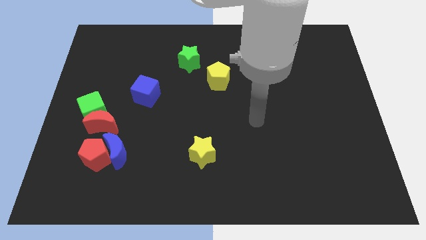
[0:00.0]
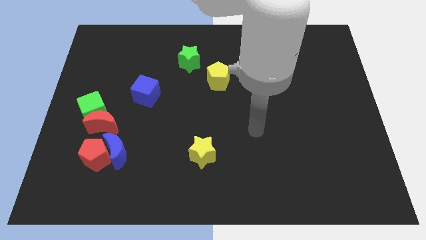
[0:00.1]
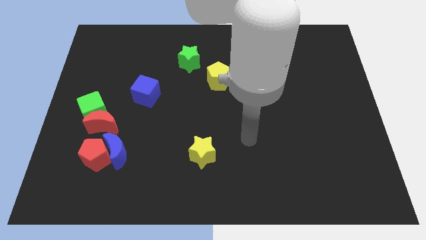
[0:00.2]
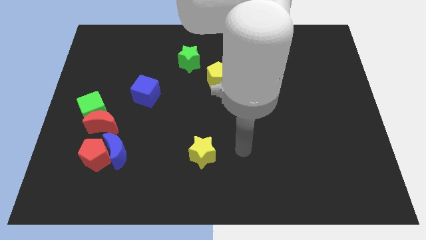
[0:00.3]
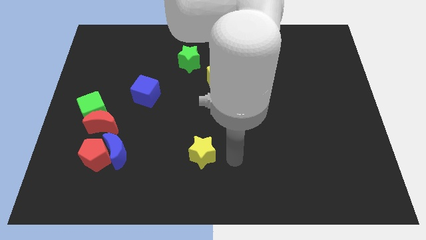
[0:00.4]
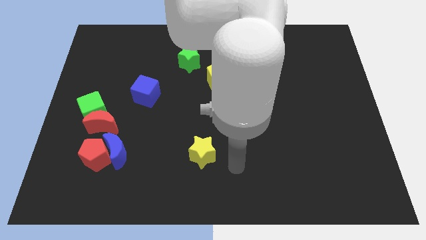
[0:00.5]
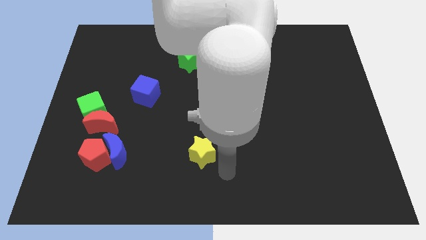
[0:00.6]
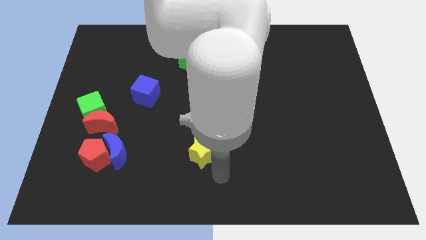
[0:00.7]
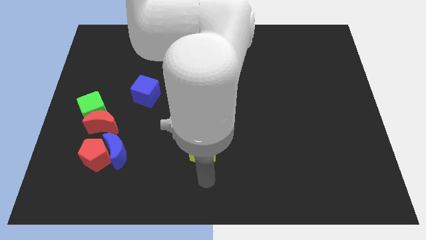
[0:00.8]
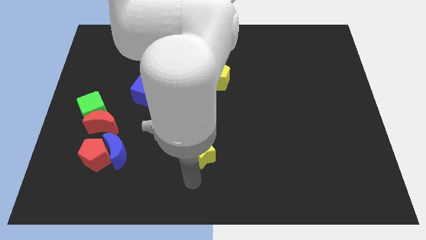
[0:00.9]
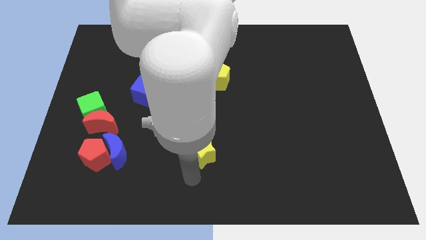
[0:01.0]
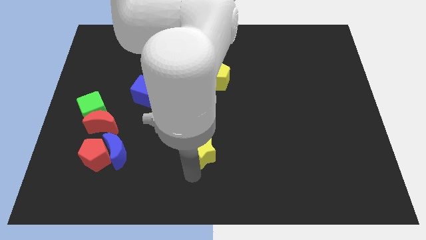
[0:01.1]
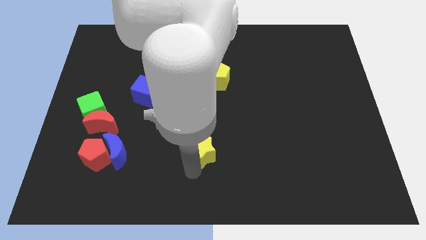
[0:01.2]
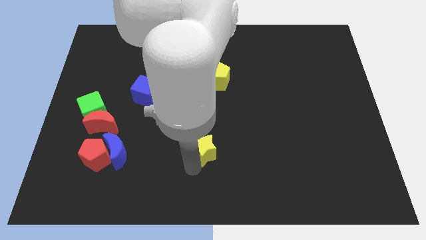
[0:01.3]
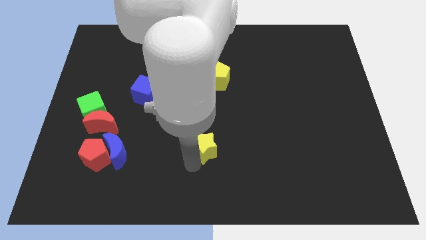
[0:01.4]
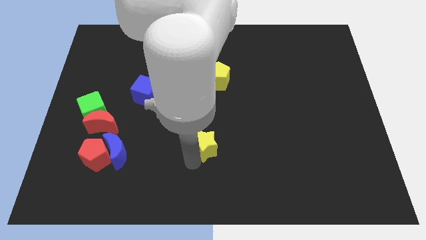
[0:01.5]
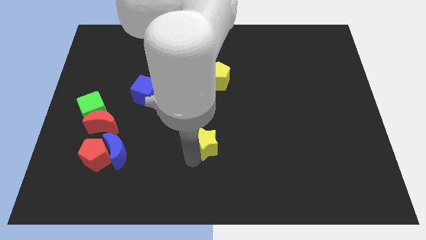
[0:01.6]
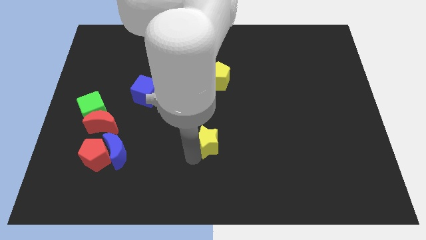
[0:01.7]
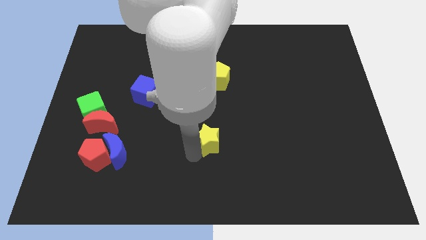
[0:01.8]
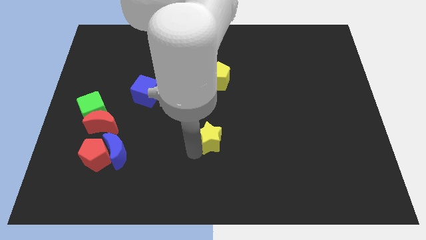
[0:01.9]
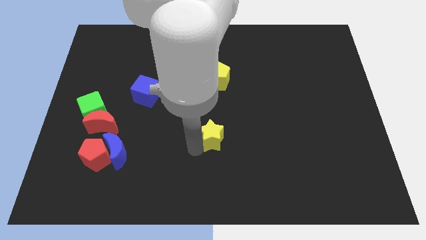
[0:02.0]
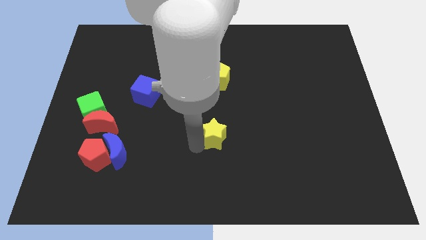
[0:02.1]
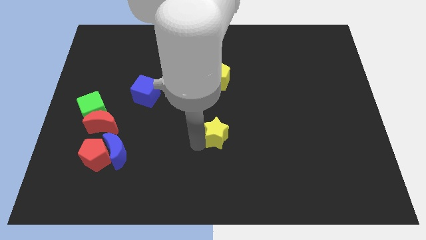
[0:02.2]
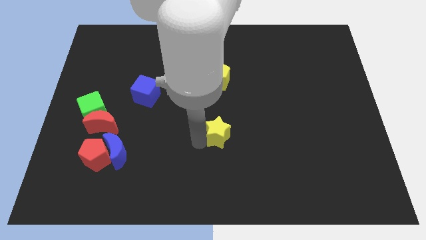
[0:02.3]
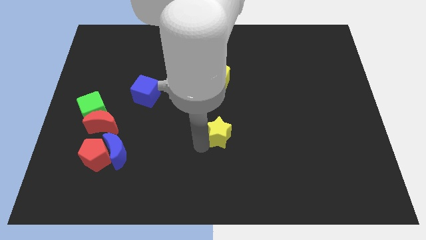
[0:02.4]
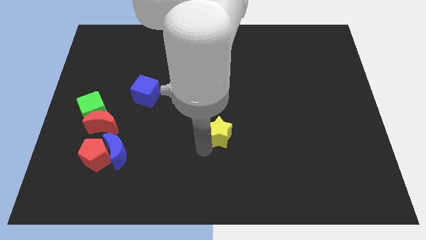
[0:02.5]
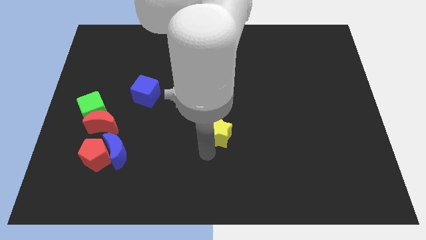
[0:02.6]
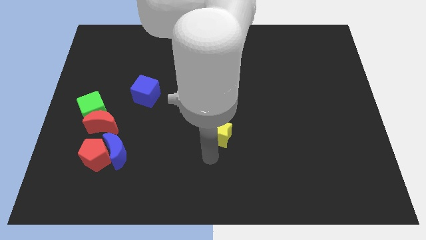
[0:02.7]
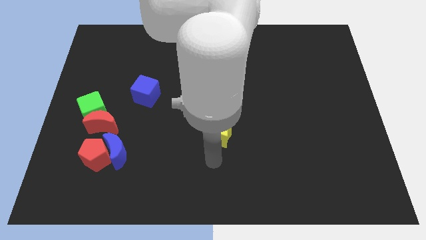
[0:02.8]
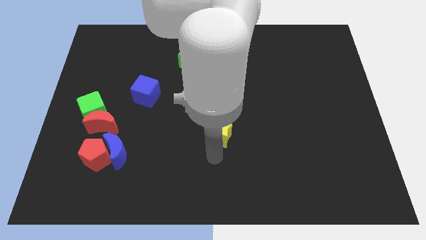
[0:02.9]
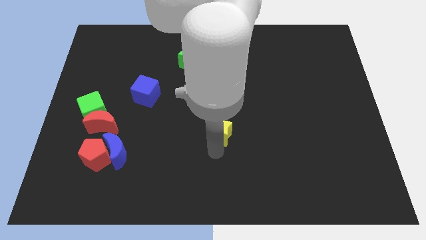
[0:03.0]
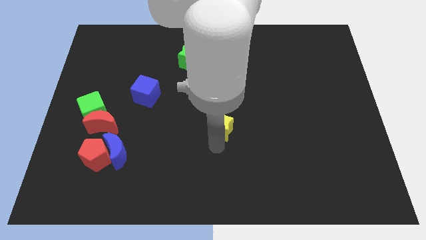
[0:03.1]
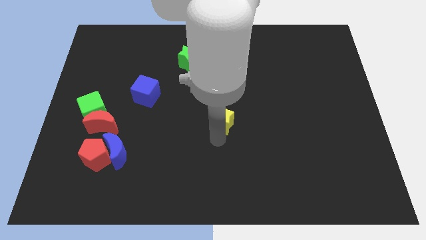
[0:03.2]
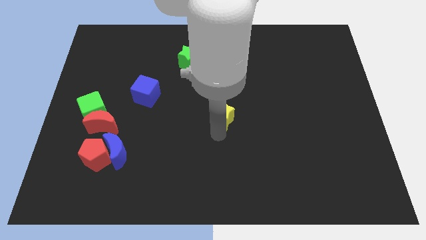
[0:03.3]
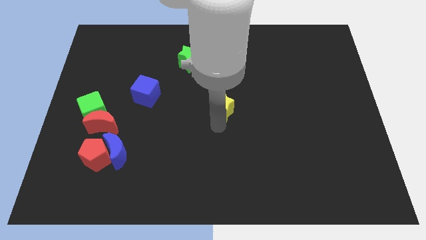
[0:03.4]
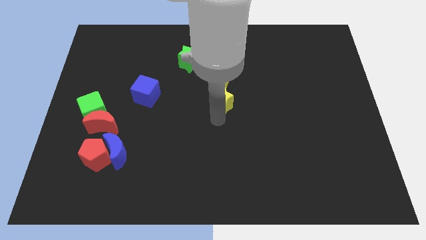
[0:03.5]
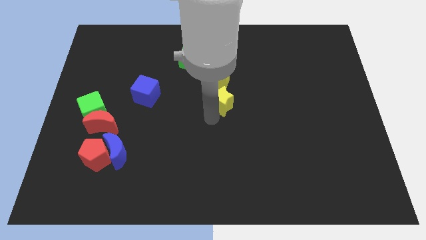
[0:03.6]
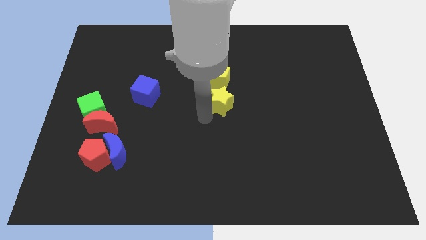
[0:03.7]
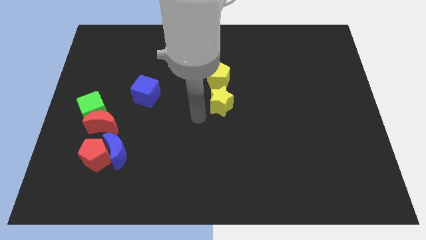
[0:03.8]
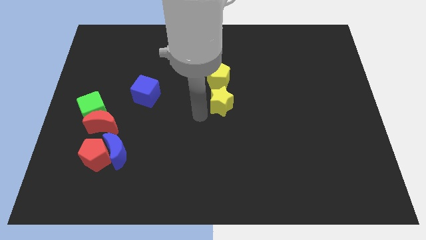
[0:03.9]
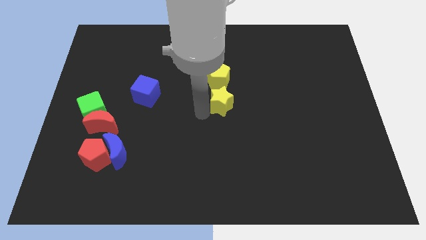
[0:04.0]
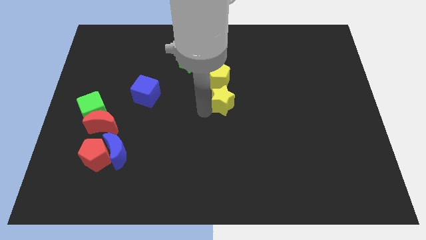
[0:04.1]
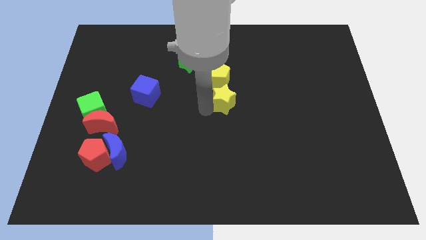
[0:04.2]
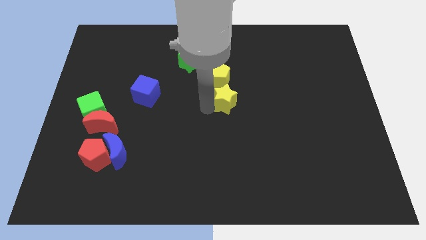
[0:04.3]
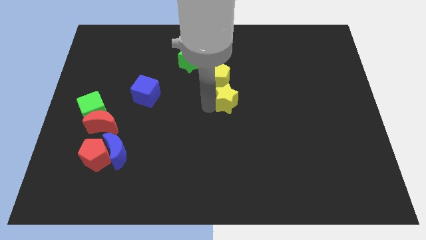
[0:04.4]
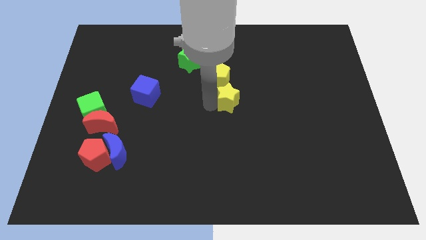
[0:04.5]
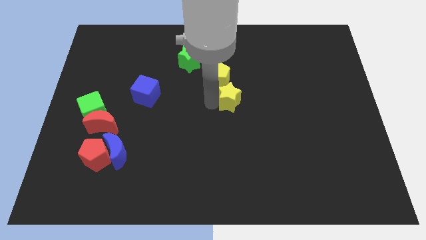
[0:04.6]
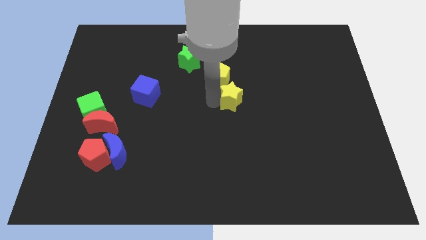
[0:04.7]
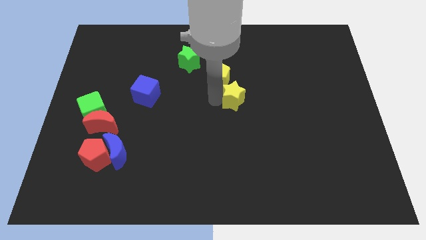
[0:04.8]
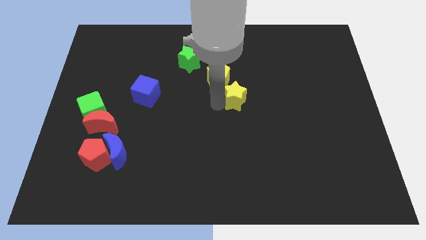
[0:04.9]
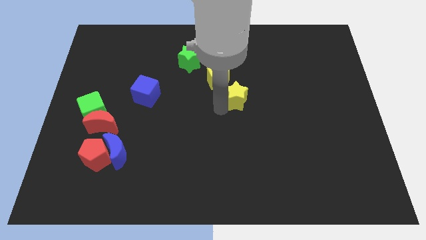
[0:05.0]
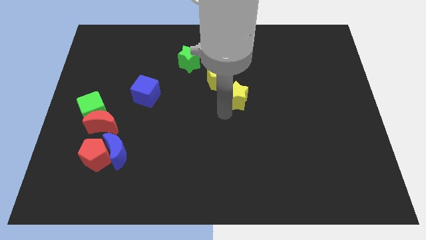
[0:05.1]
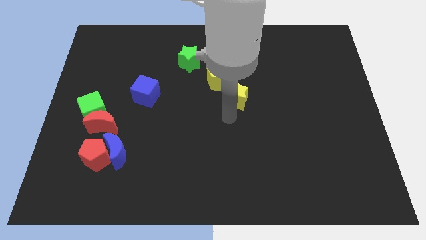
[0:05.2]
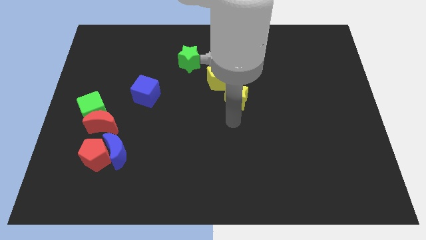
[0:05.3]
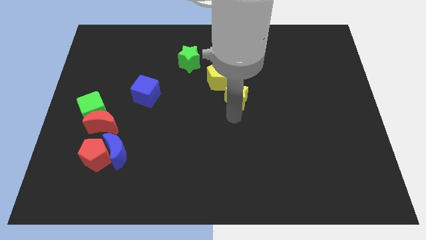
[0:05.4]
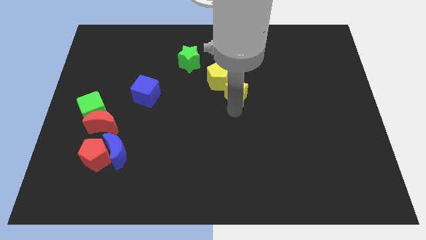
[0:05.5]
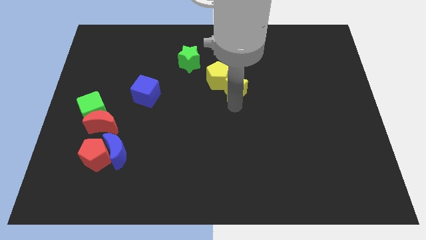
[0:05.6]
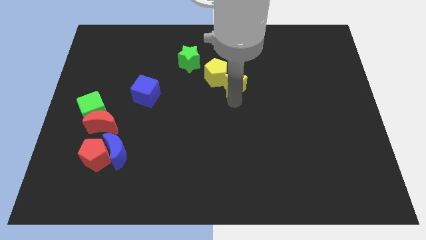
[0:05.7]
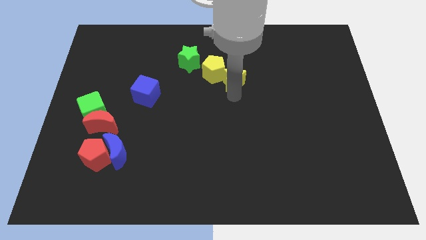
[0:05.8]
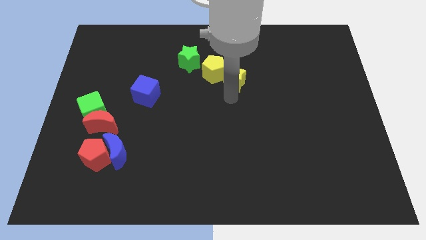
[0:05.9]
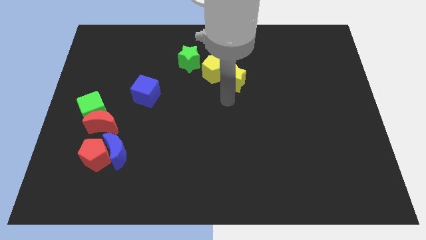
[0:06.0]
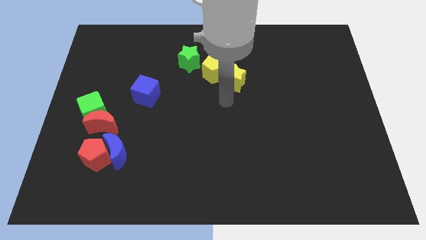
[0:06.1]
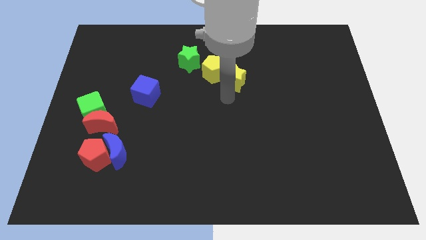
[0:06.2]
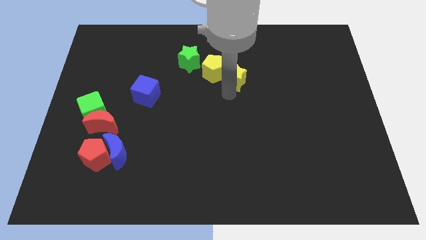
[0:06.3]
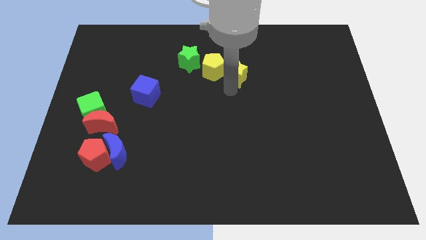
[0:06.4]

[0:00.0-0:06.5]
slide the yellow star right of the green star

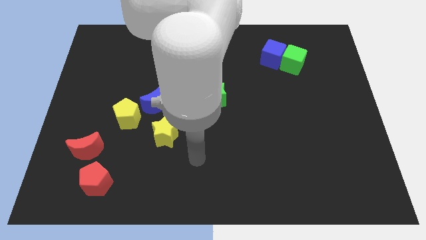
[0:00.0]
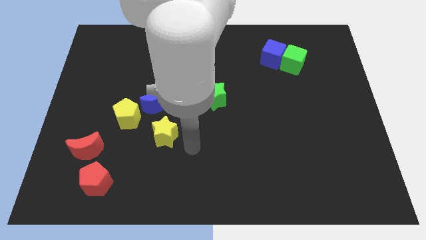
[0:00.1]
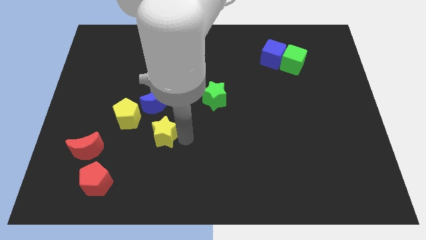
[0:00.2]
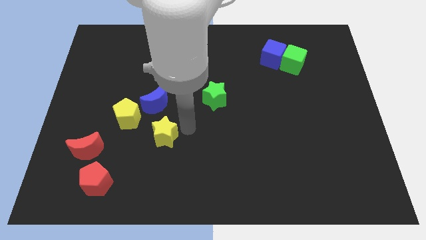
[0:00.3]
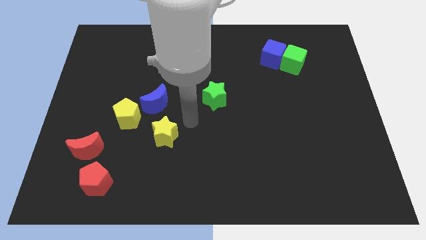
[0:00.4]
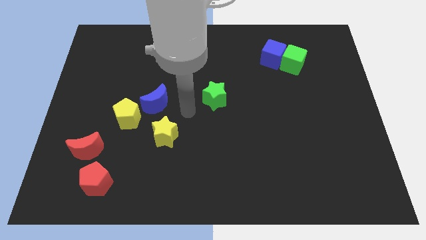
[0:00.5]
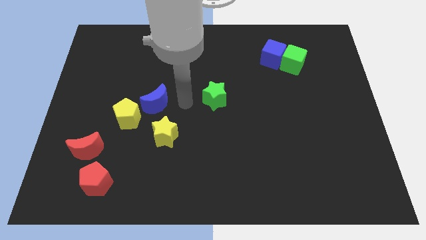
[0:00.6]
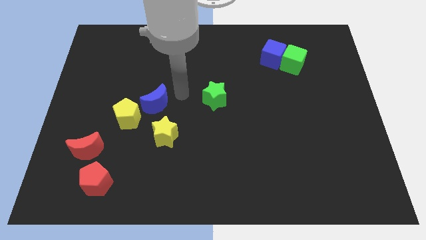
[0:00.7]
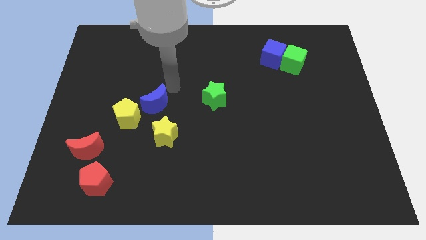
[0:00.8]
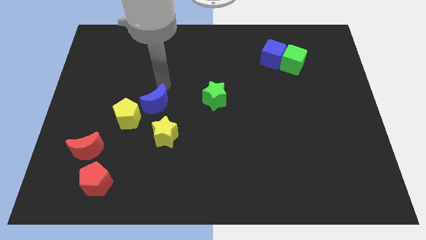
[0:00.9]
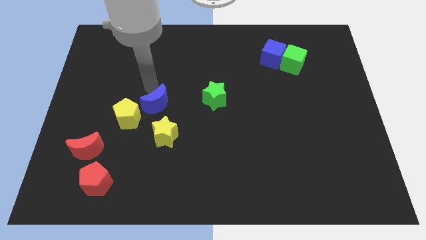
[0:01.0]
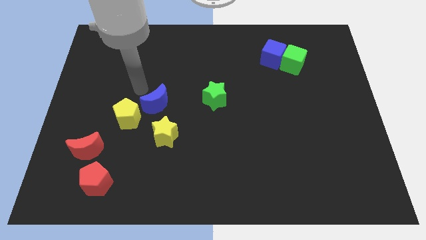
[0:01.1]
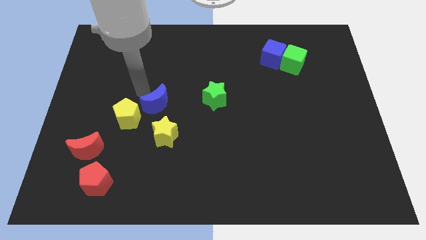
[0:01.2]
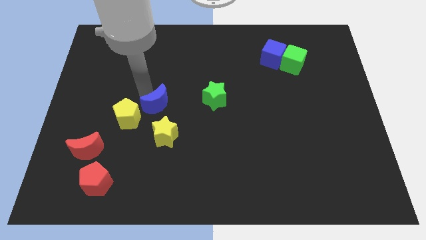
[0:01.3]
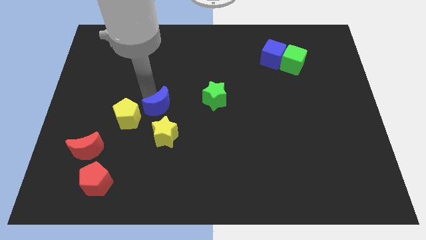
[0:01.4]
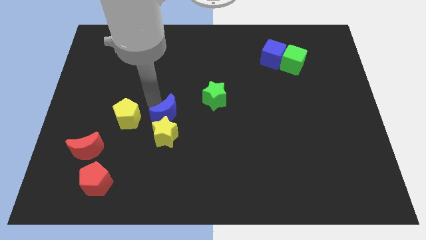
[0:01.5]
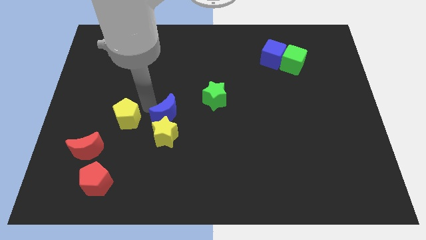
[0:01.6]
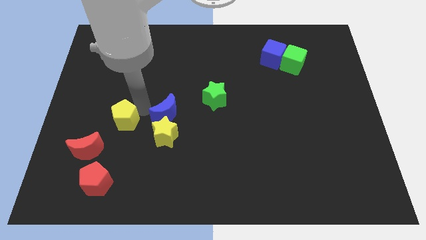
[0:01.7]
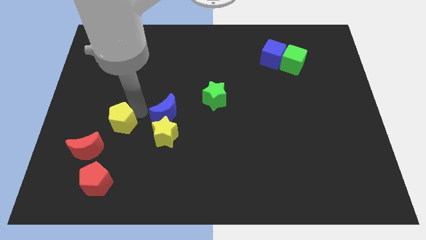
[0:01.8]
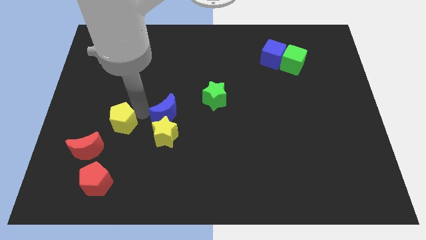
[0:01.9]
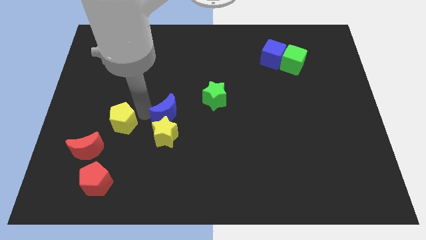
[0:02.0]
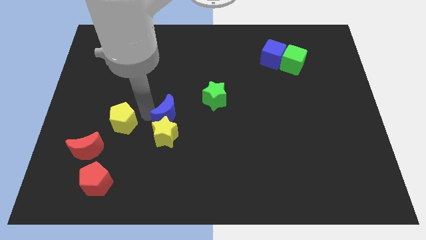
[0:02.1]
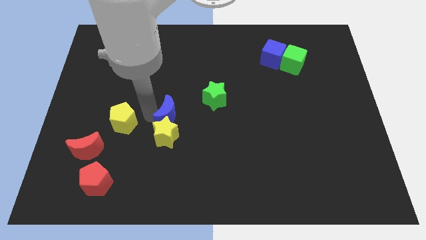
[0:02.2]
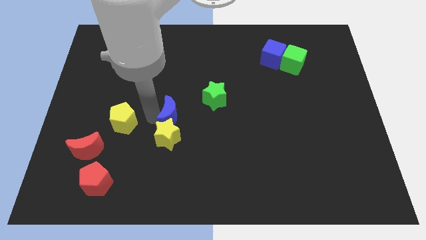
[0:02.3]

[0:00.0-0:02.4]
slide the blue moon to the bottom left side of the green star
